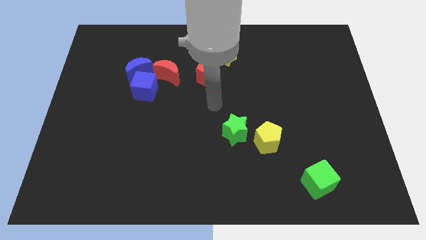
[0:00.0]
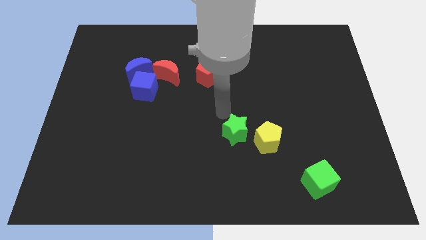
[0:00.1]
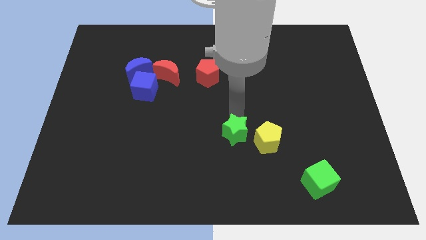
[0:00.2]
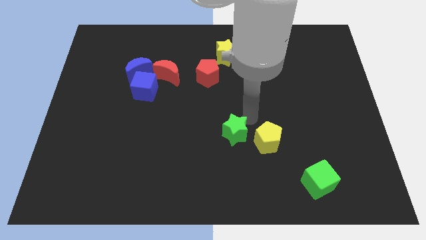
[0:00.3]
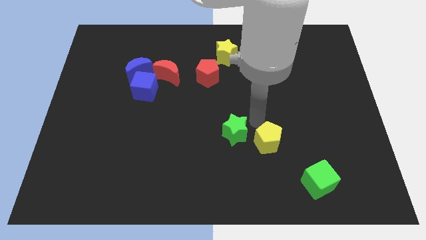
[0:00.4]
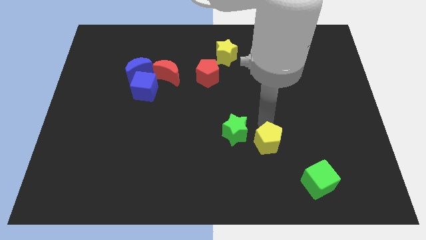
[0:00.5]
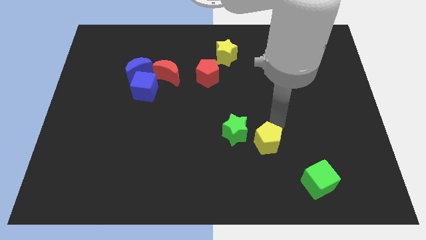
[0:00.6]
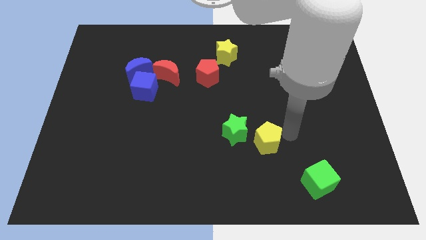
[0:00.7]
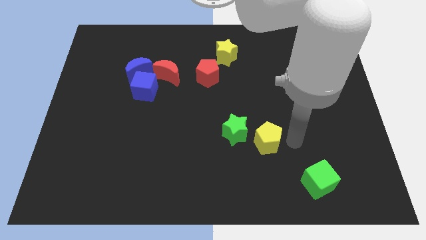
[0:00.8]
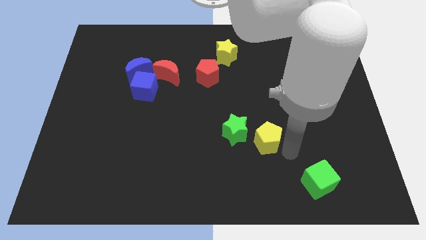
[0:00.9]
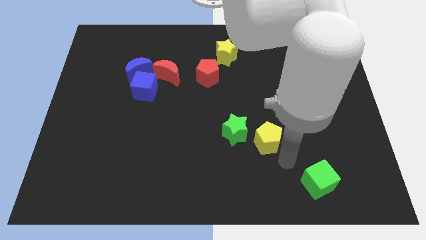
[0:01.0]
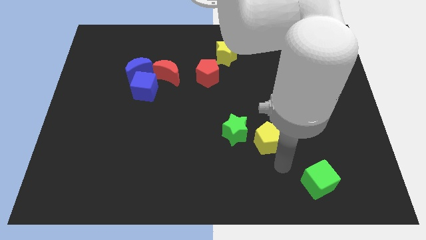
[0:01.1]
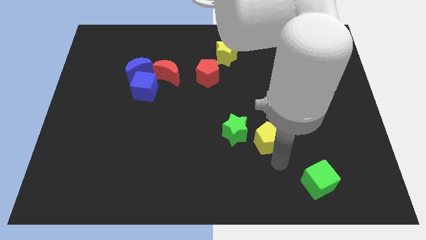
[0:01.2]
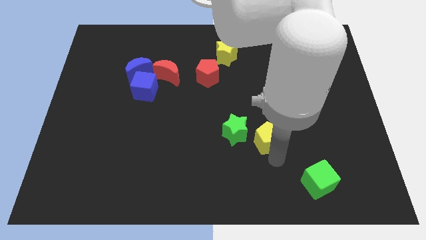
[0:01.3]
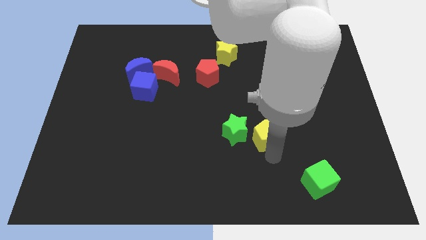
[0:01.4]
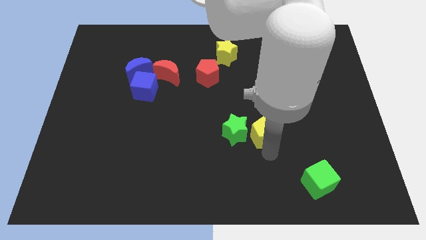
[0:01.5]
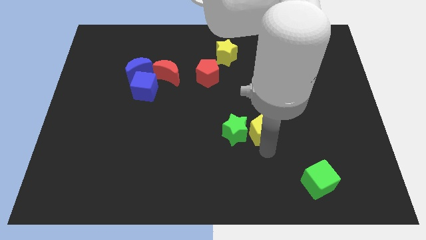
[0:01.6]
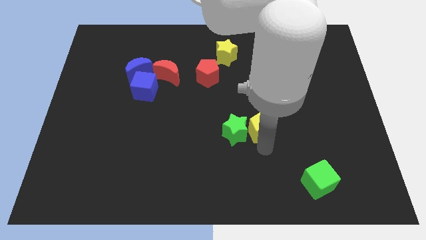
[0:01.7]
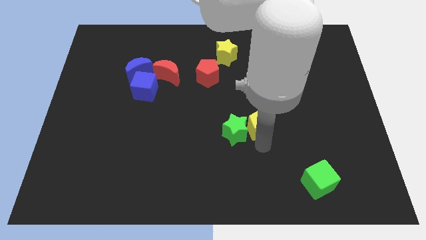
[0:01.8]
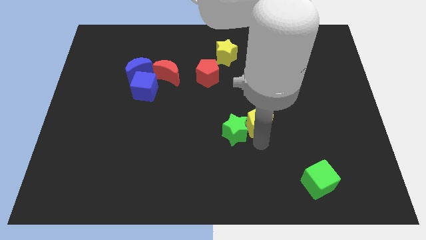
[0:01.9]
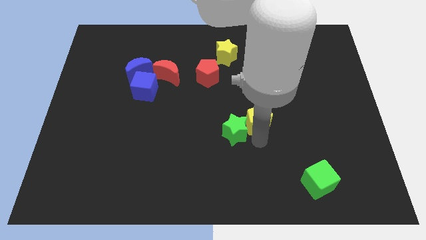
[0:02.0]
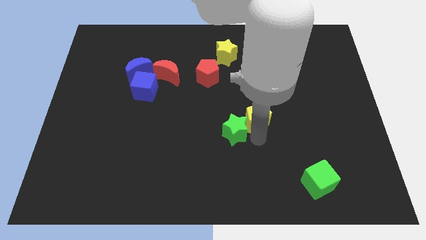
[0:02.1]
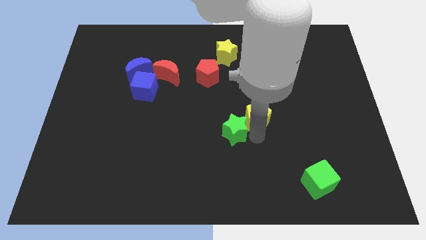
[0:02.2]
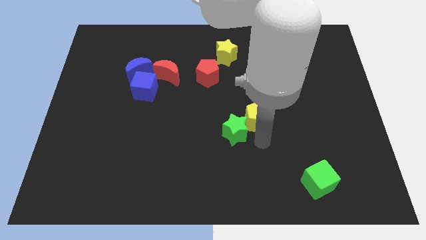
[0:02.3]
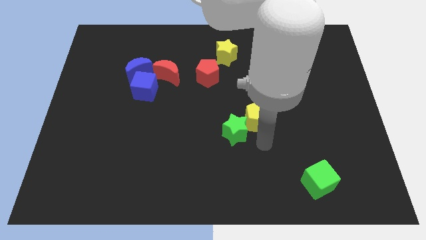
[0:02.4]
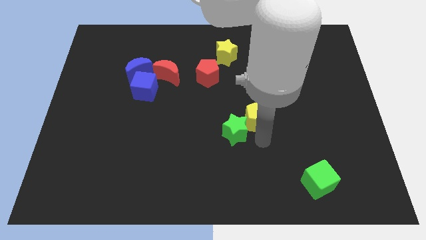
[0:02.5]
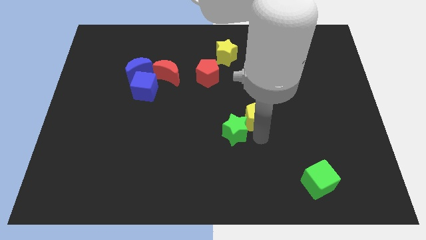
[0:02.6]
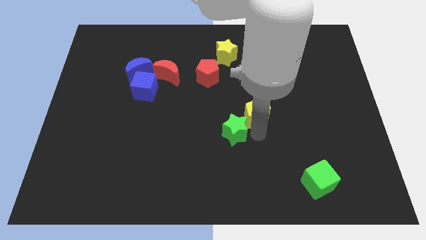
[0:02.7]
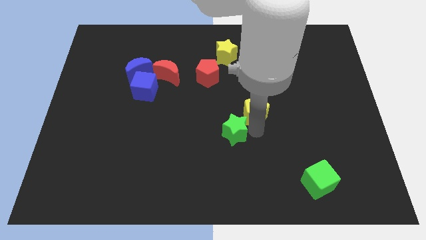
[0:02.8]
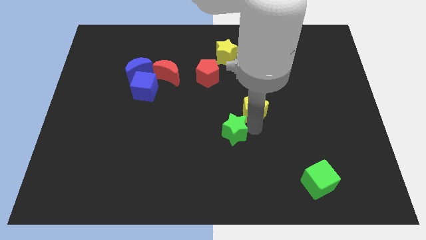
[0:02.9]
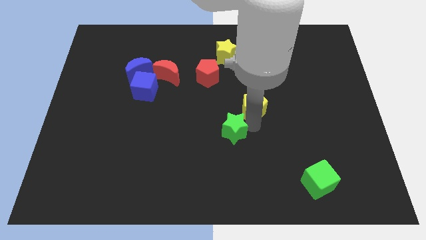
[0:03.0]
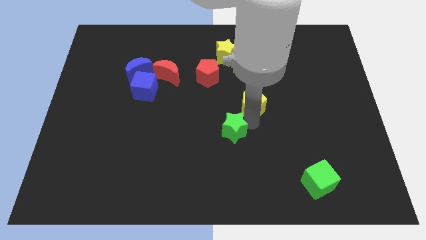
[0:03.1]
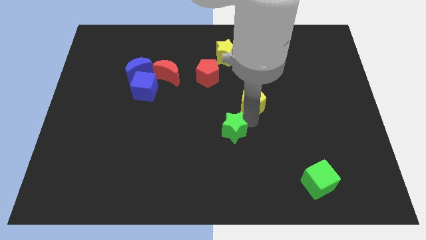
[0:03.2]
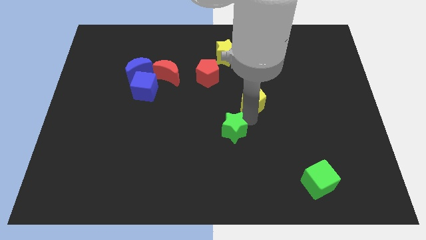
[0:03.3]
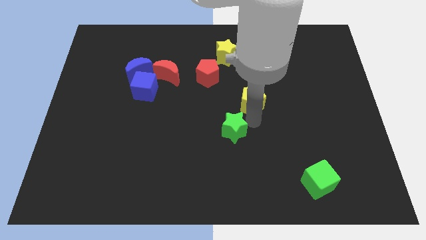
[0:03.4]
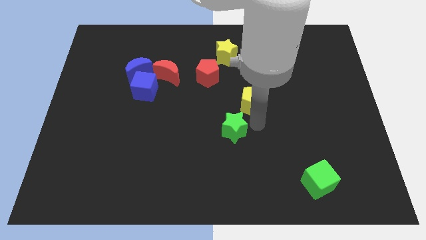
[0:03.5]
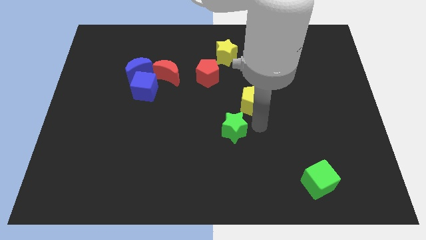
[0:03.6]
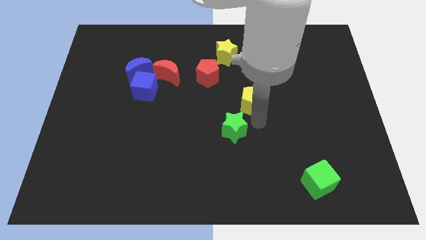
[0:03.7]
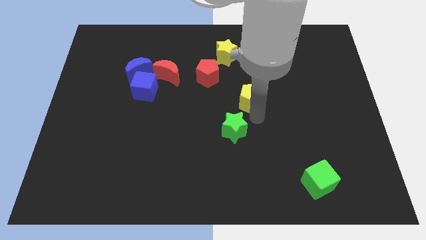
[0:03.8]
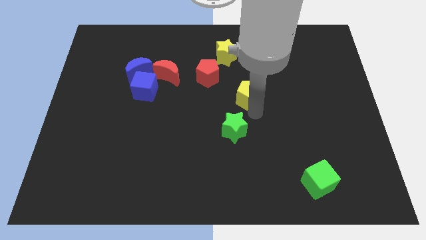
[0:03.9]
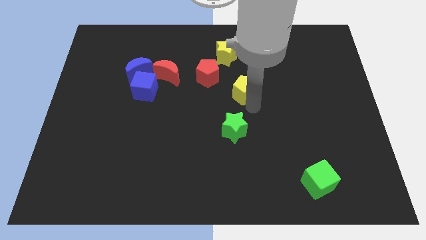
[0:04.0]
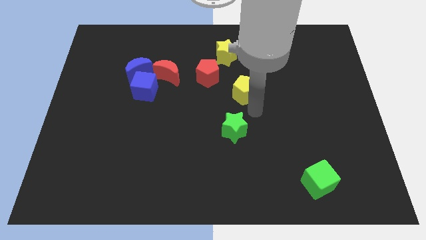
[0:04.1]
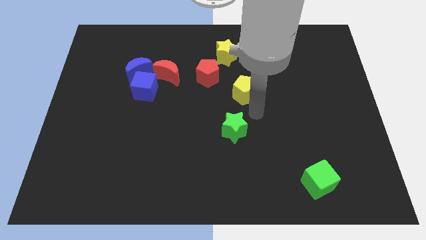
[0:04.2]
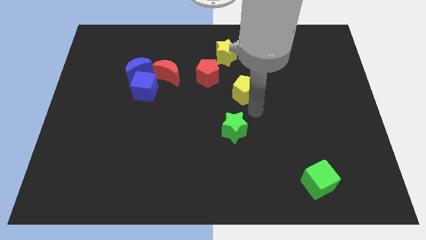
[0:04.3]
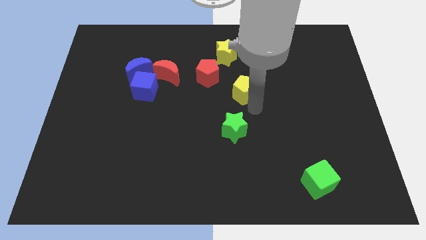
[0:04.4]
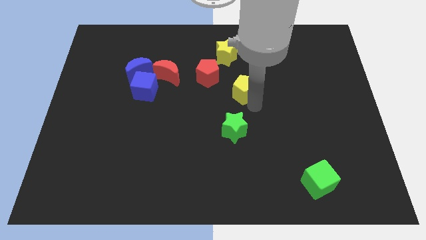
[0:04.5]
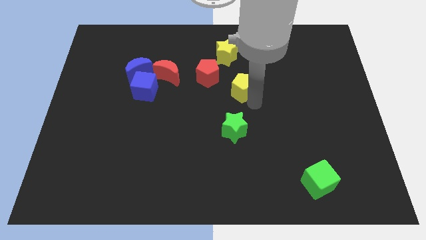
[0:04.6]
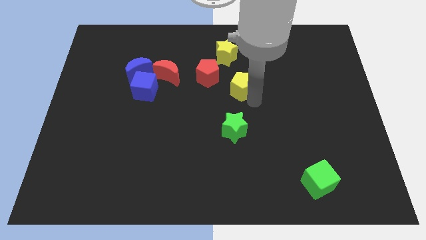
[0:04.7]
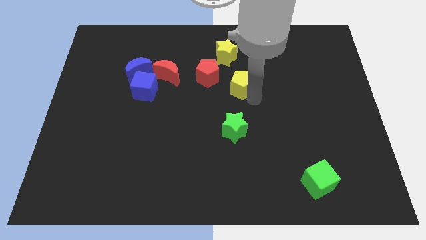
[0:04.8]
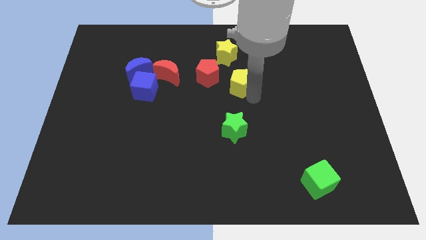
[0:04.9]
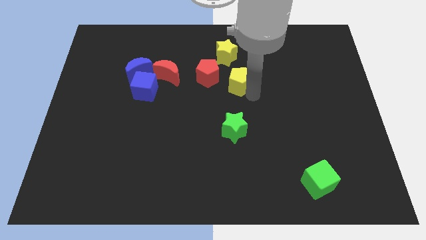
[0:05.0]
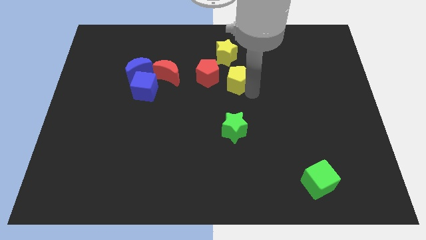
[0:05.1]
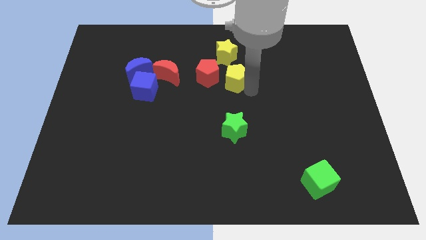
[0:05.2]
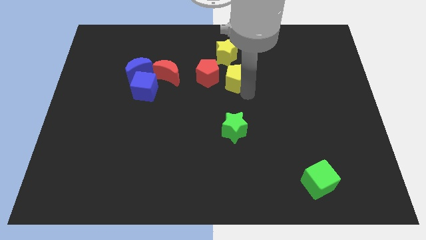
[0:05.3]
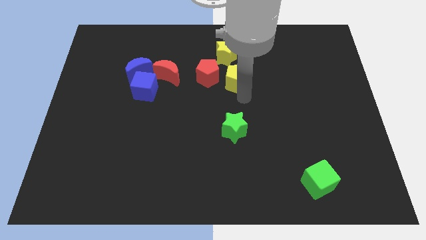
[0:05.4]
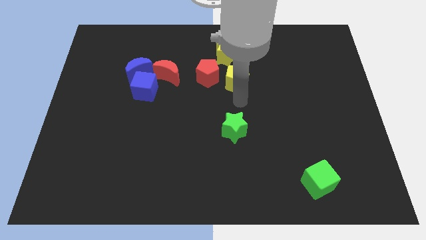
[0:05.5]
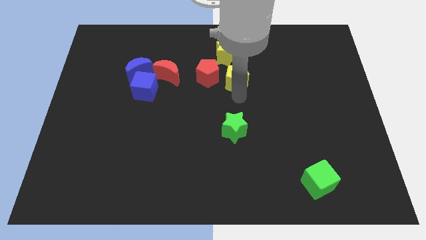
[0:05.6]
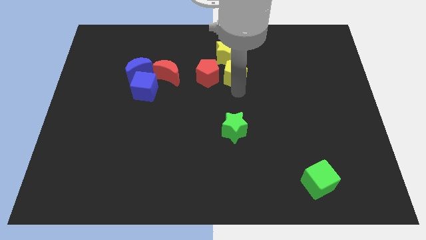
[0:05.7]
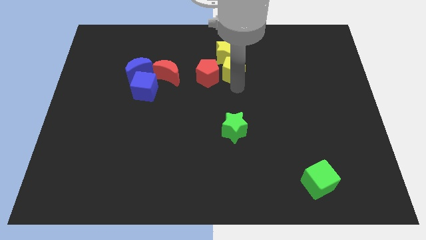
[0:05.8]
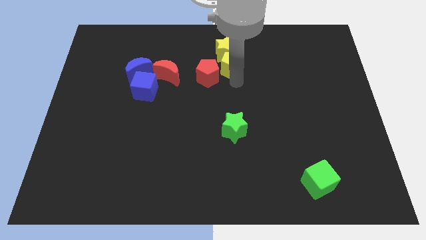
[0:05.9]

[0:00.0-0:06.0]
slide the yellow pentagon towards the yellow star

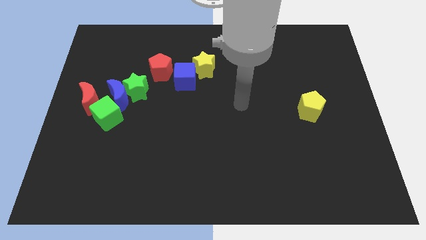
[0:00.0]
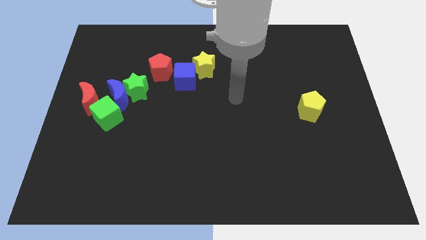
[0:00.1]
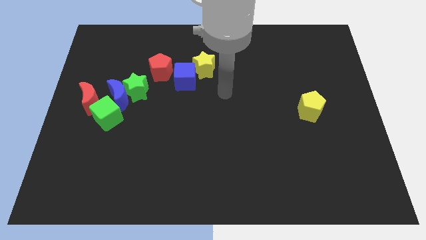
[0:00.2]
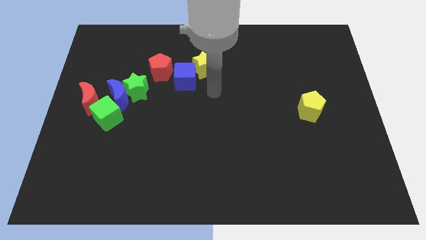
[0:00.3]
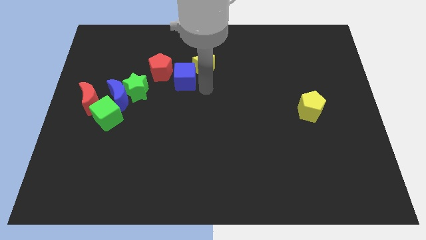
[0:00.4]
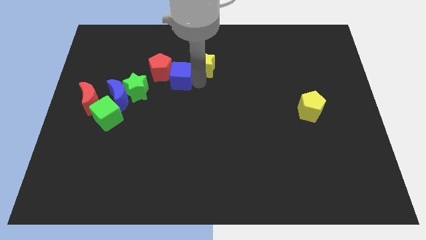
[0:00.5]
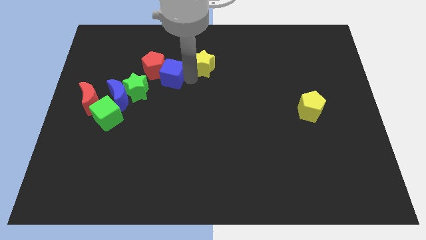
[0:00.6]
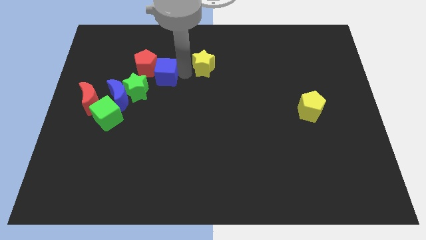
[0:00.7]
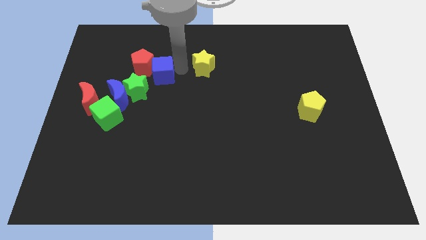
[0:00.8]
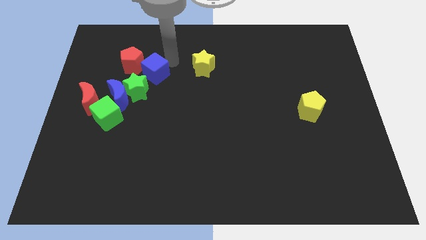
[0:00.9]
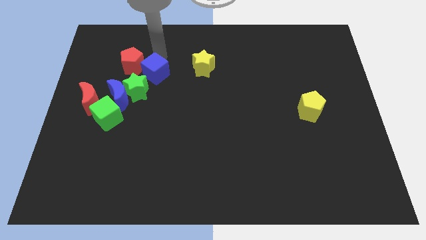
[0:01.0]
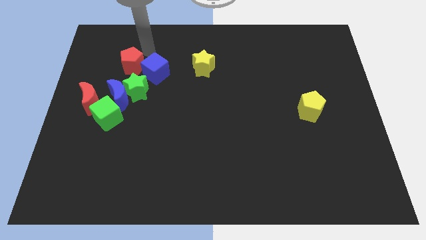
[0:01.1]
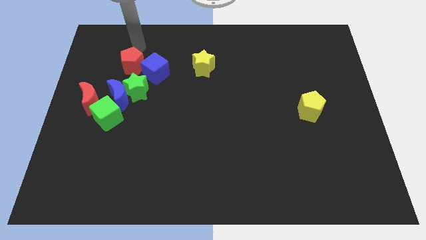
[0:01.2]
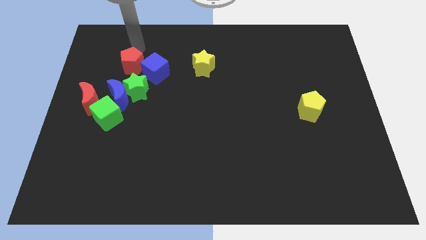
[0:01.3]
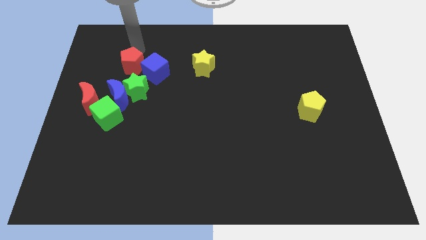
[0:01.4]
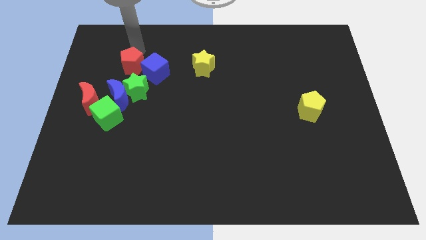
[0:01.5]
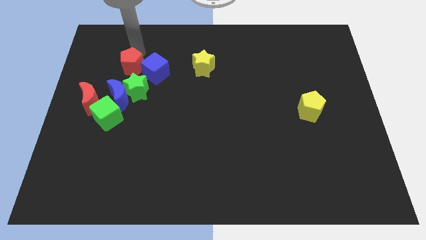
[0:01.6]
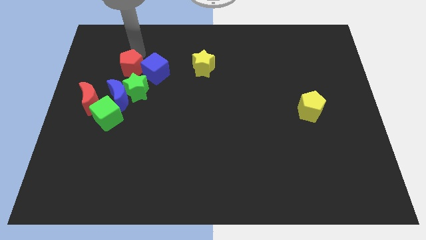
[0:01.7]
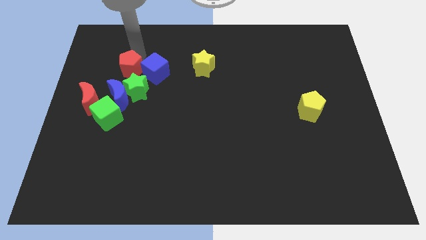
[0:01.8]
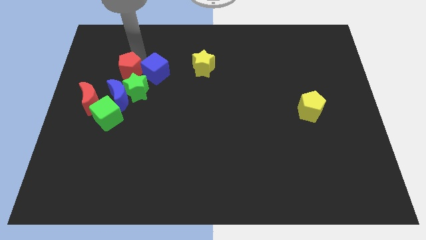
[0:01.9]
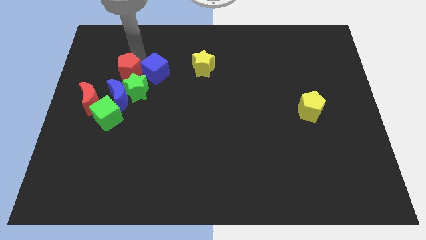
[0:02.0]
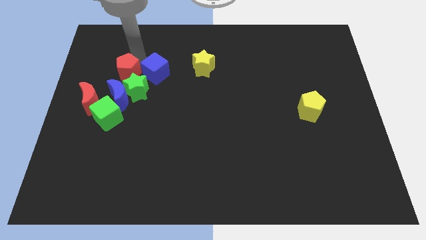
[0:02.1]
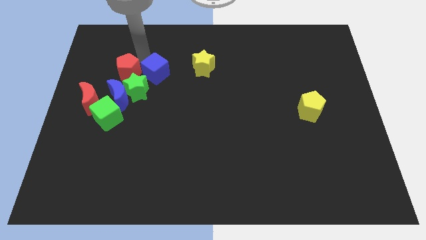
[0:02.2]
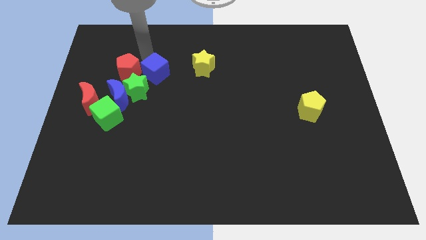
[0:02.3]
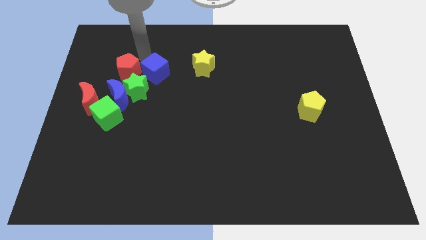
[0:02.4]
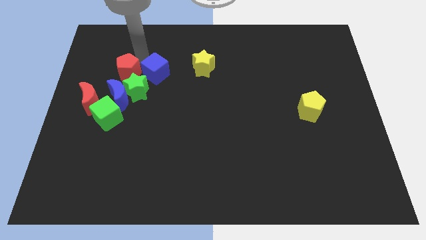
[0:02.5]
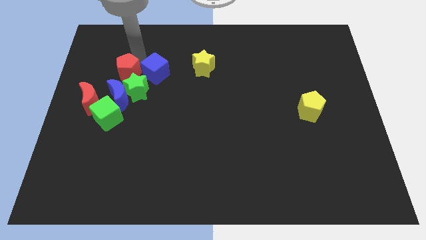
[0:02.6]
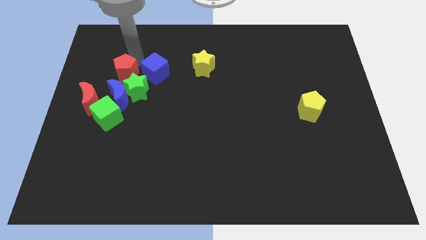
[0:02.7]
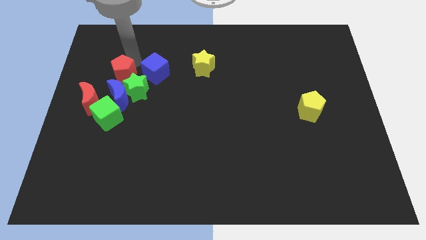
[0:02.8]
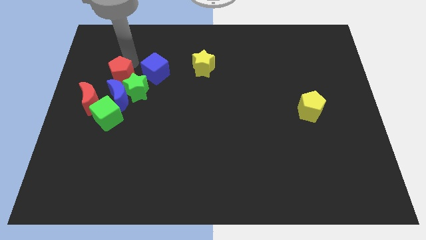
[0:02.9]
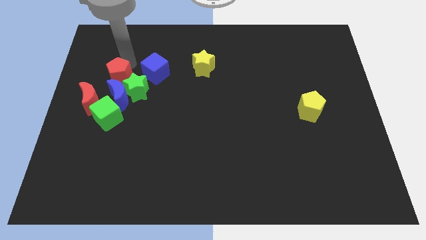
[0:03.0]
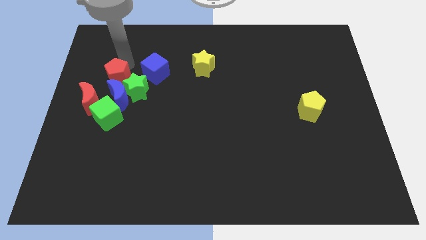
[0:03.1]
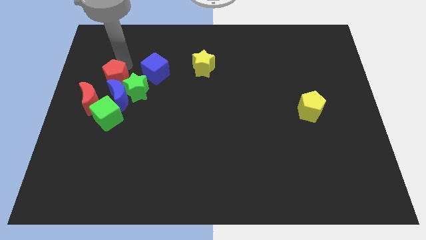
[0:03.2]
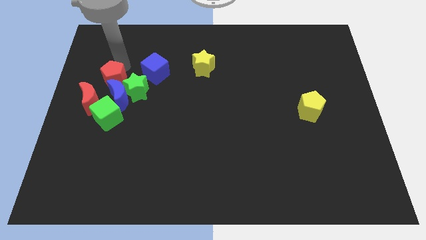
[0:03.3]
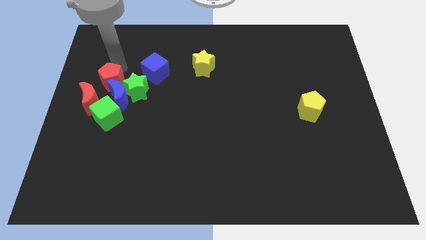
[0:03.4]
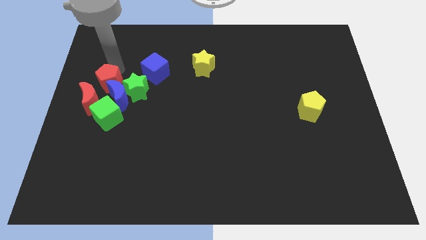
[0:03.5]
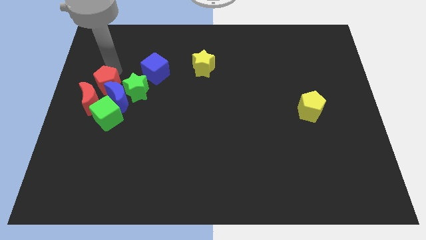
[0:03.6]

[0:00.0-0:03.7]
slide the red pentagon towards the red moon
